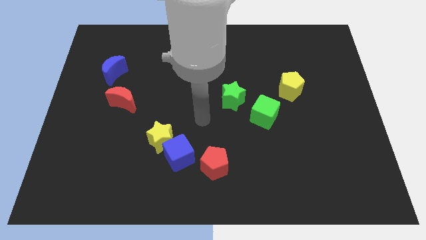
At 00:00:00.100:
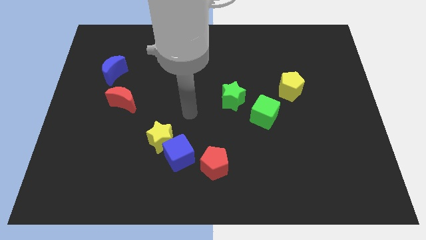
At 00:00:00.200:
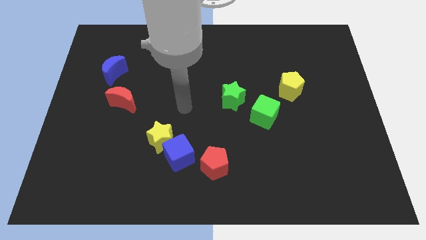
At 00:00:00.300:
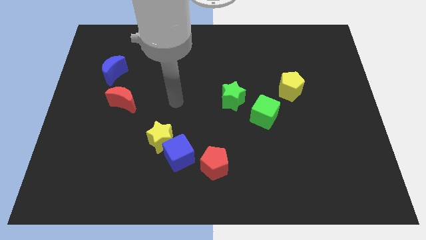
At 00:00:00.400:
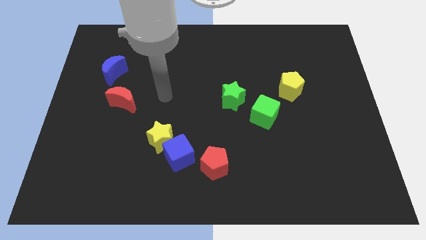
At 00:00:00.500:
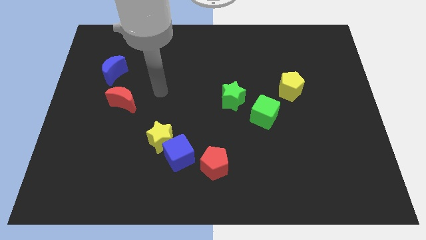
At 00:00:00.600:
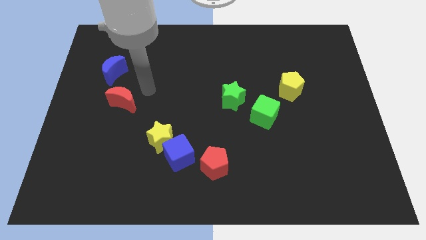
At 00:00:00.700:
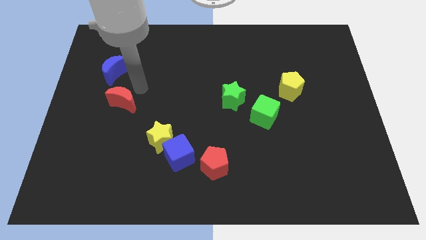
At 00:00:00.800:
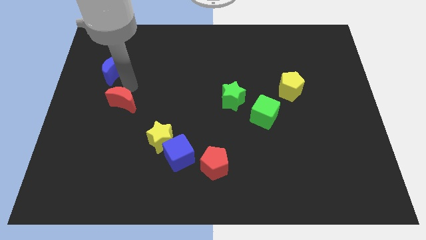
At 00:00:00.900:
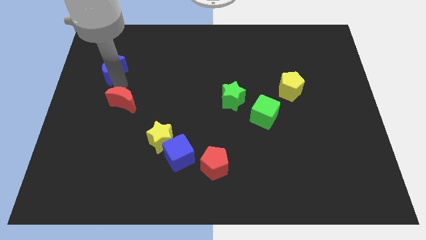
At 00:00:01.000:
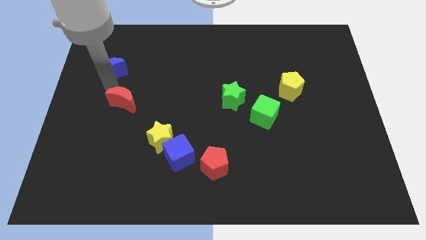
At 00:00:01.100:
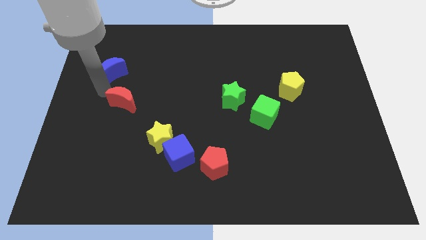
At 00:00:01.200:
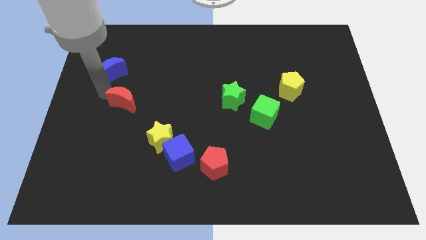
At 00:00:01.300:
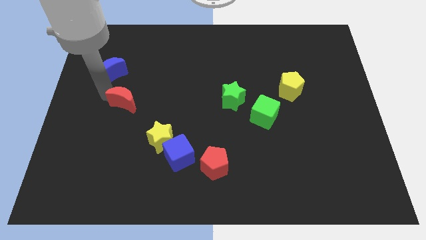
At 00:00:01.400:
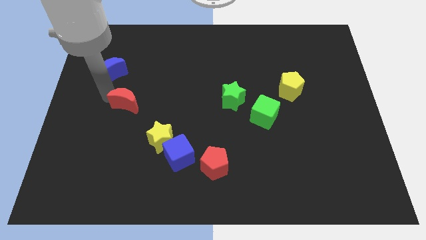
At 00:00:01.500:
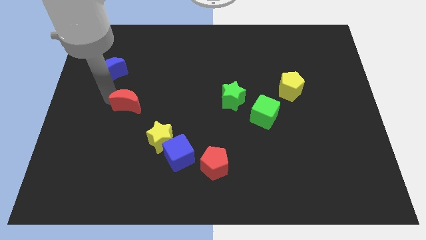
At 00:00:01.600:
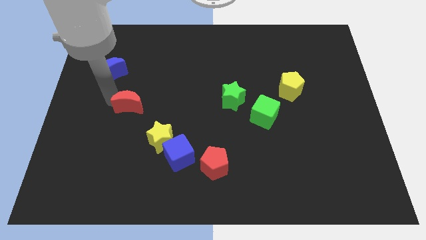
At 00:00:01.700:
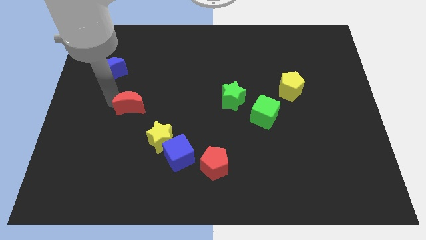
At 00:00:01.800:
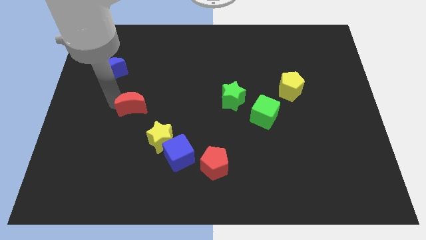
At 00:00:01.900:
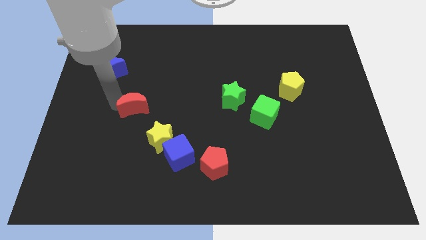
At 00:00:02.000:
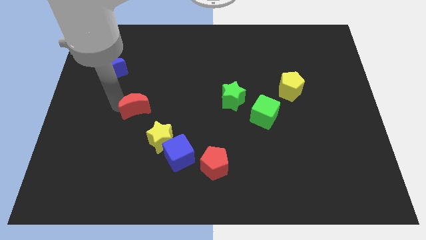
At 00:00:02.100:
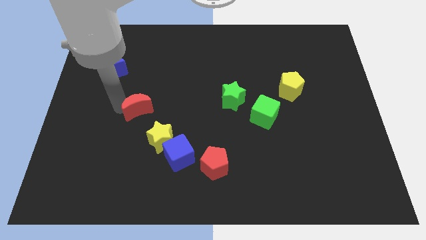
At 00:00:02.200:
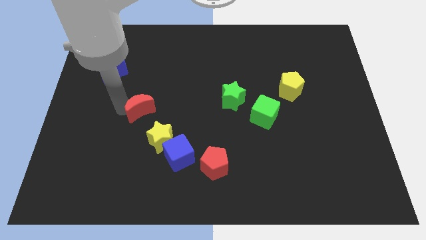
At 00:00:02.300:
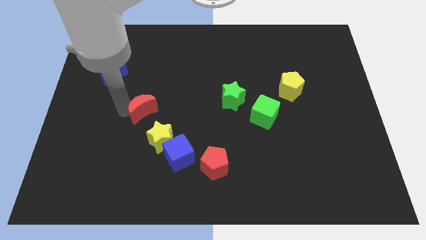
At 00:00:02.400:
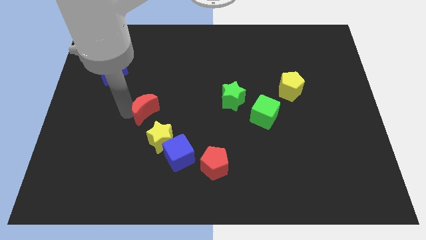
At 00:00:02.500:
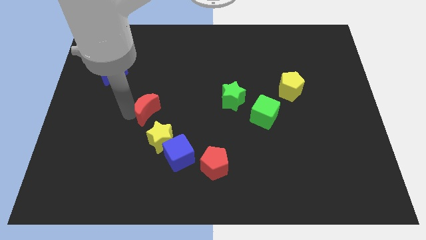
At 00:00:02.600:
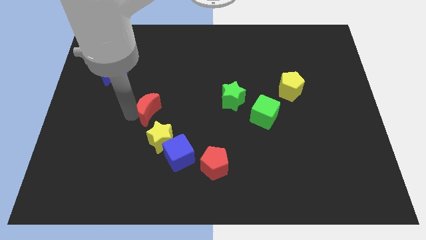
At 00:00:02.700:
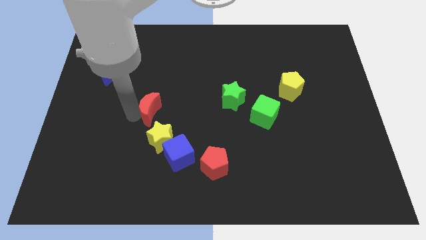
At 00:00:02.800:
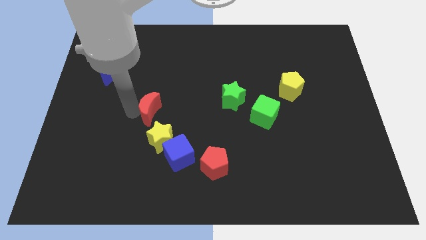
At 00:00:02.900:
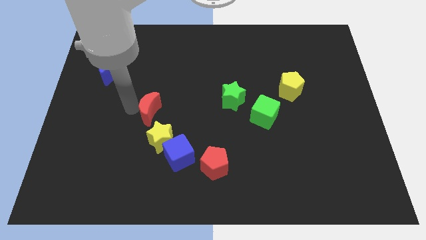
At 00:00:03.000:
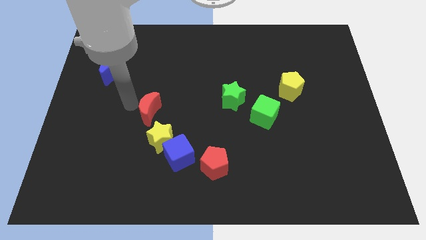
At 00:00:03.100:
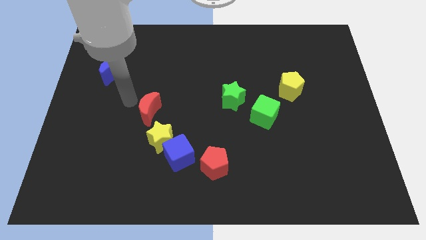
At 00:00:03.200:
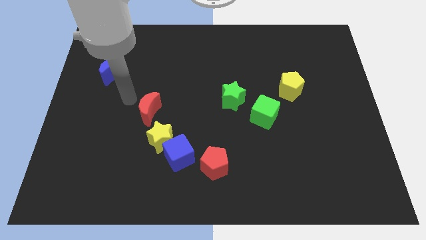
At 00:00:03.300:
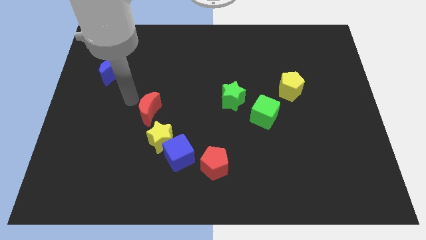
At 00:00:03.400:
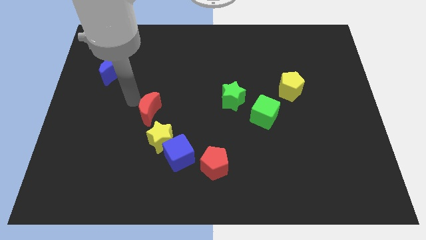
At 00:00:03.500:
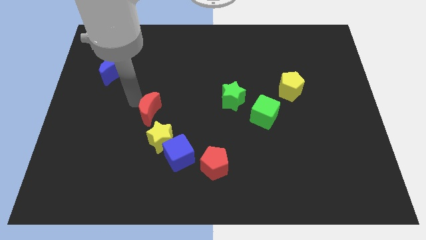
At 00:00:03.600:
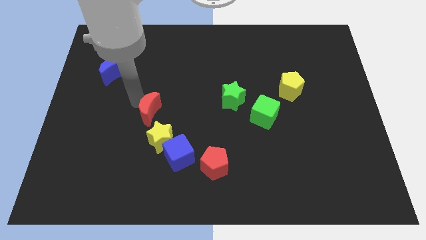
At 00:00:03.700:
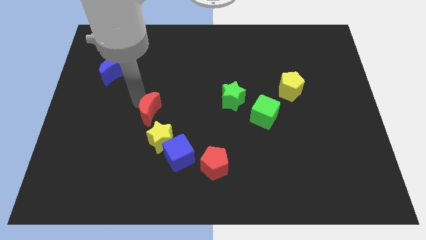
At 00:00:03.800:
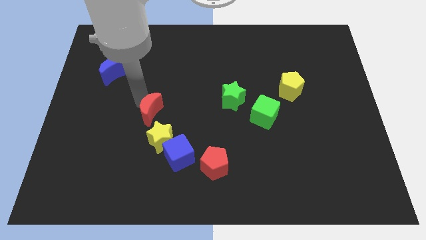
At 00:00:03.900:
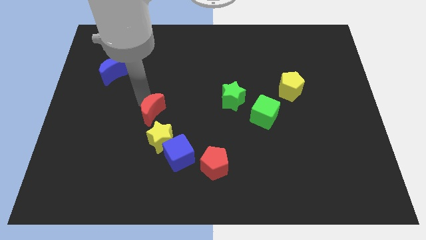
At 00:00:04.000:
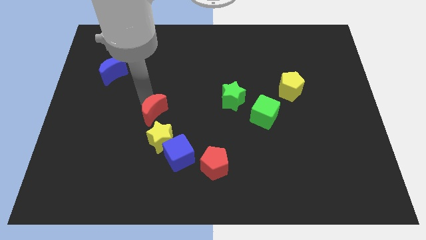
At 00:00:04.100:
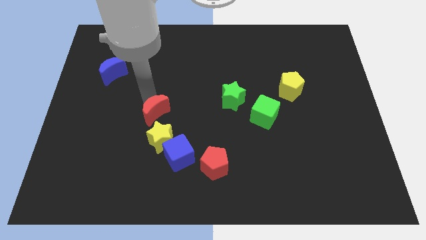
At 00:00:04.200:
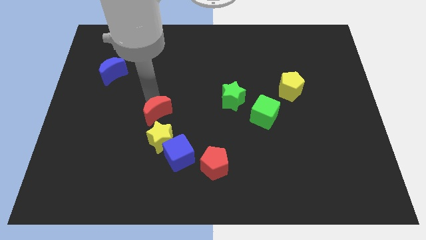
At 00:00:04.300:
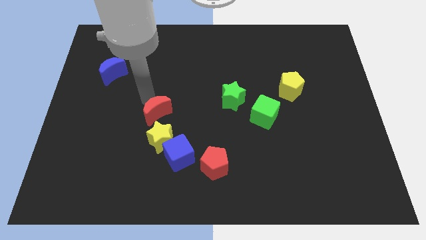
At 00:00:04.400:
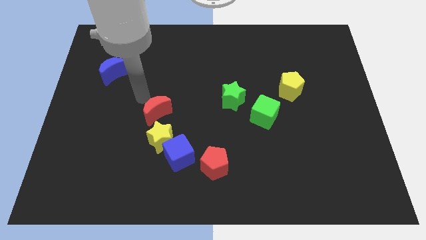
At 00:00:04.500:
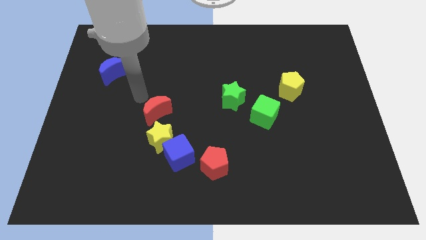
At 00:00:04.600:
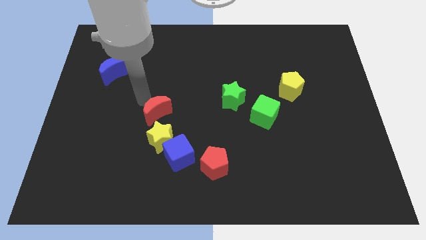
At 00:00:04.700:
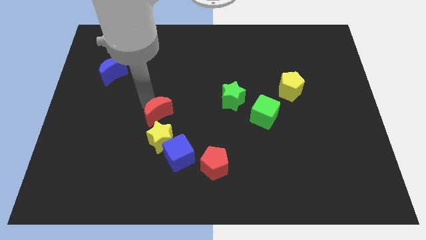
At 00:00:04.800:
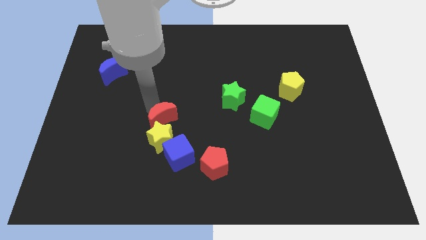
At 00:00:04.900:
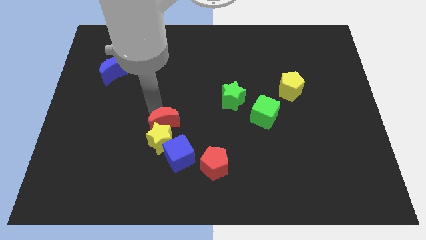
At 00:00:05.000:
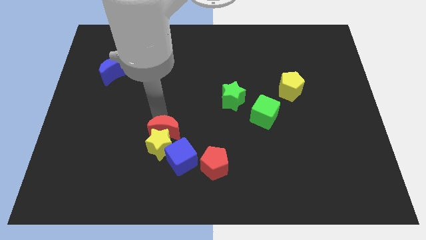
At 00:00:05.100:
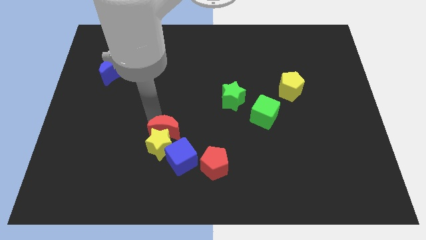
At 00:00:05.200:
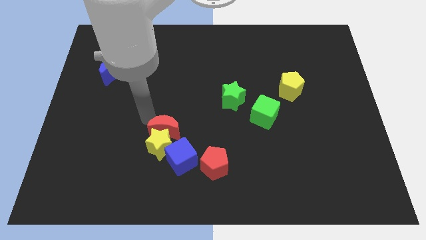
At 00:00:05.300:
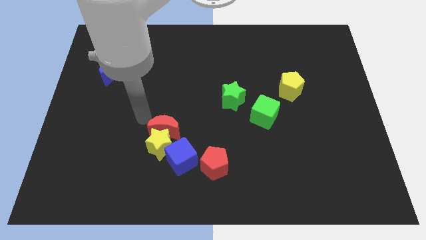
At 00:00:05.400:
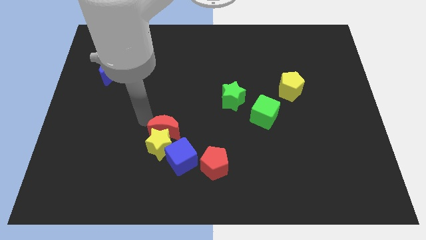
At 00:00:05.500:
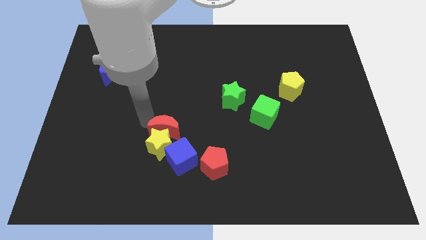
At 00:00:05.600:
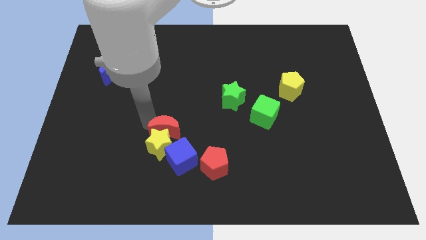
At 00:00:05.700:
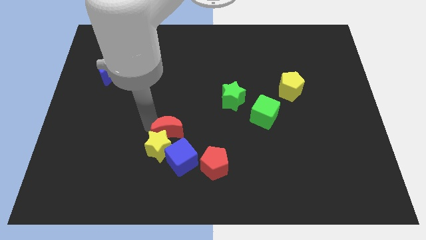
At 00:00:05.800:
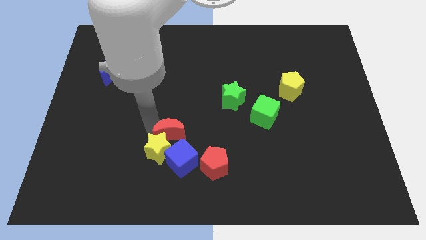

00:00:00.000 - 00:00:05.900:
move the red moon to the top left side of the red pentagon

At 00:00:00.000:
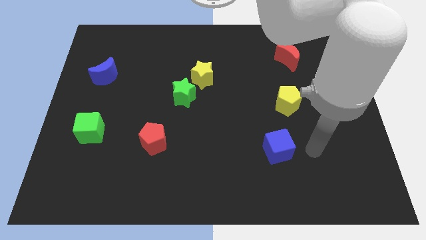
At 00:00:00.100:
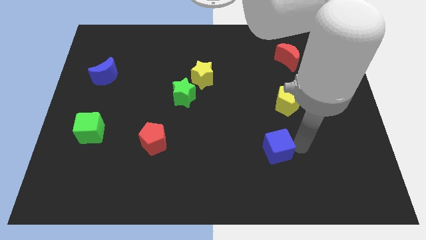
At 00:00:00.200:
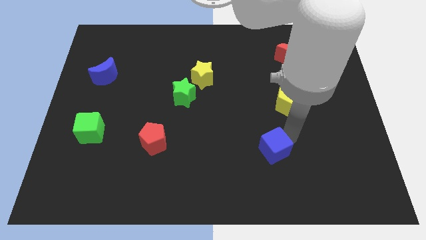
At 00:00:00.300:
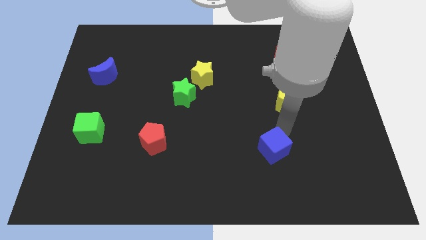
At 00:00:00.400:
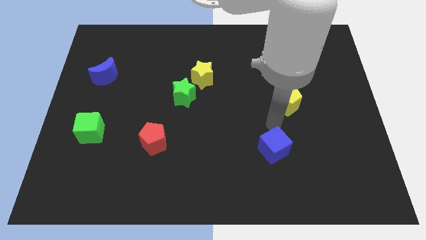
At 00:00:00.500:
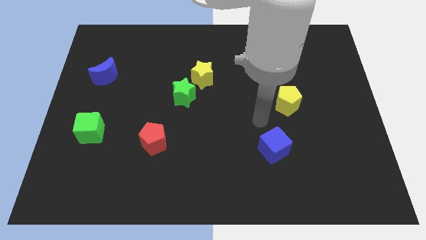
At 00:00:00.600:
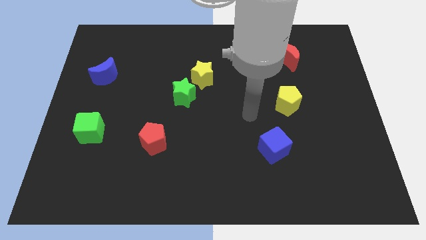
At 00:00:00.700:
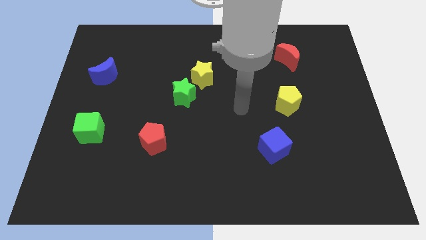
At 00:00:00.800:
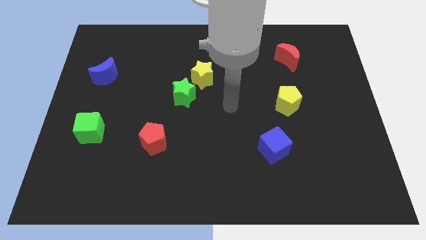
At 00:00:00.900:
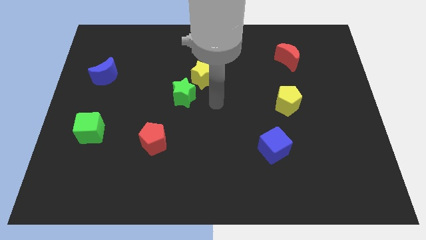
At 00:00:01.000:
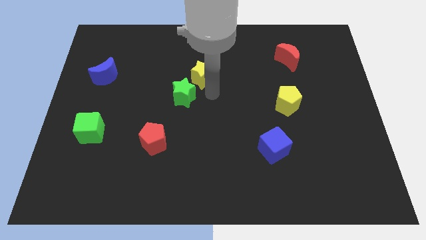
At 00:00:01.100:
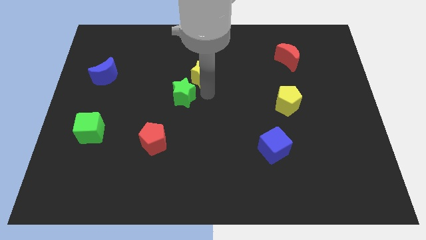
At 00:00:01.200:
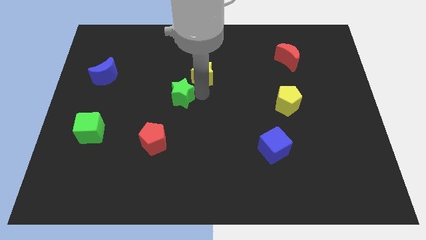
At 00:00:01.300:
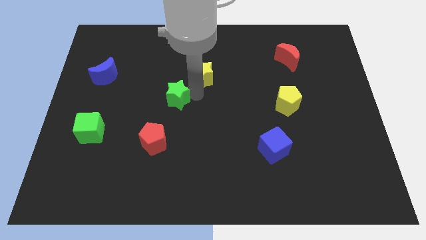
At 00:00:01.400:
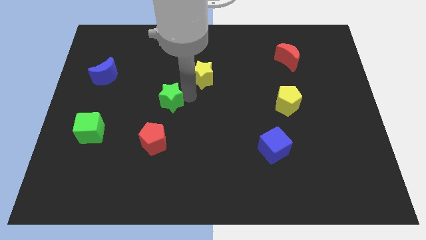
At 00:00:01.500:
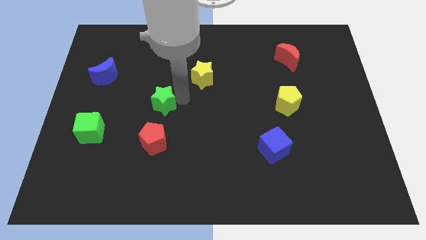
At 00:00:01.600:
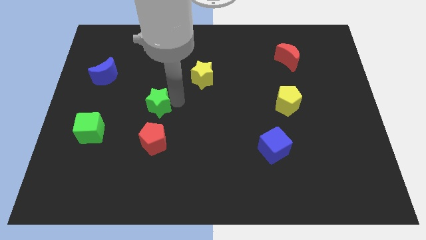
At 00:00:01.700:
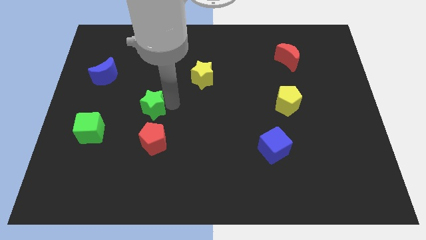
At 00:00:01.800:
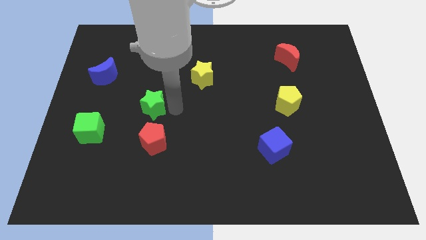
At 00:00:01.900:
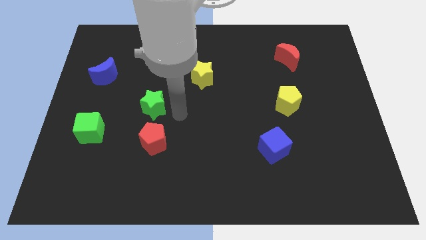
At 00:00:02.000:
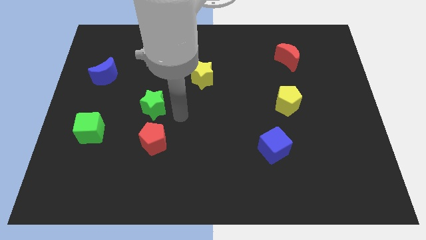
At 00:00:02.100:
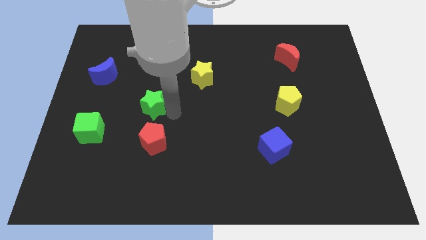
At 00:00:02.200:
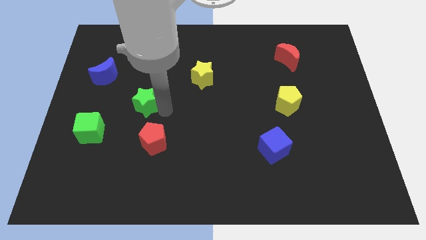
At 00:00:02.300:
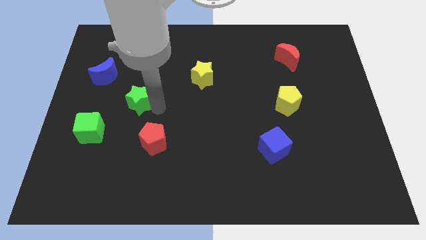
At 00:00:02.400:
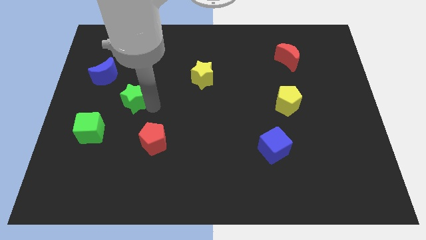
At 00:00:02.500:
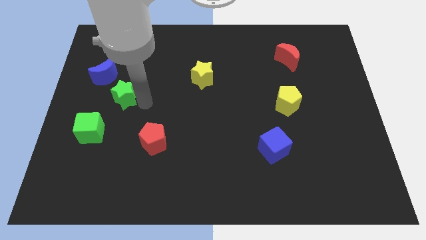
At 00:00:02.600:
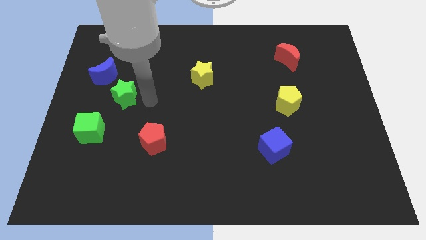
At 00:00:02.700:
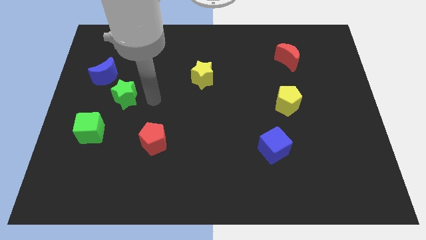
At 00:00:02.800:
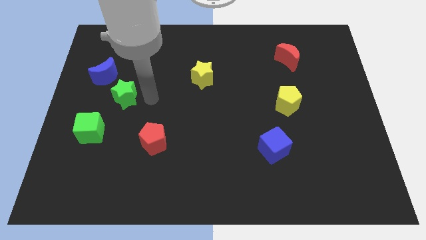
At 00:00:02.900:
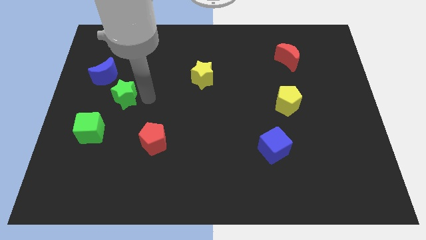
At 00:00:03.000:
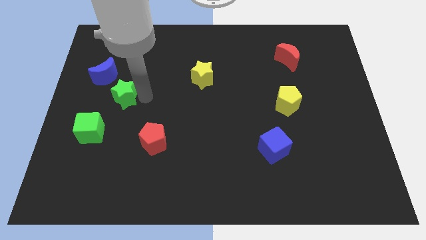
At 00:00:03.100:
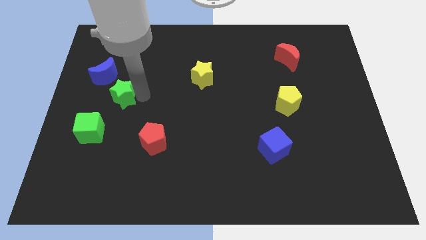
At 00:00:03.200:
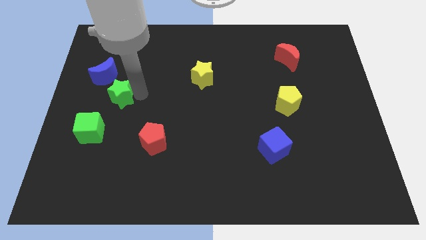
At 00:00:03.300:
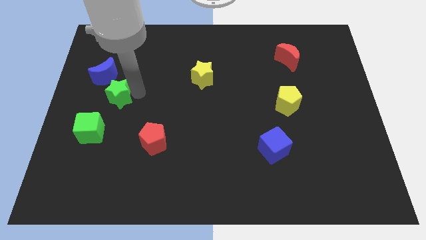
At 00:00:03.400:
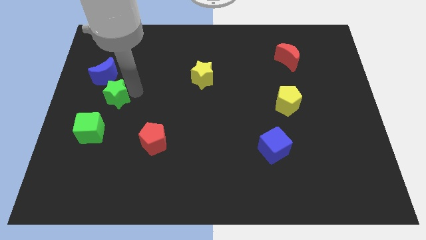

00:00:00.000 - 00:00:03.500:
push the green star to the top of the green cube
